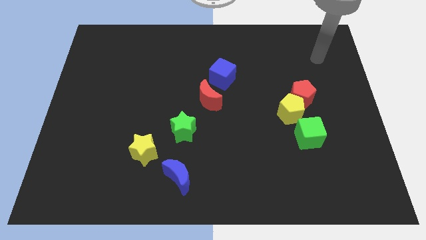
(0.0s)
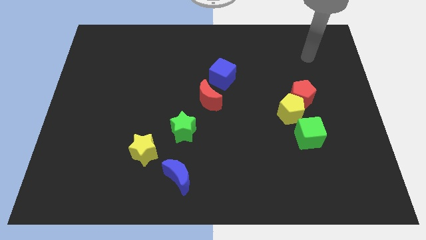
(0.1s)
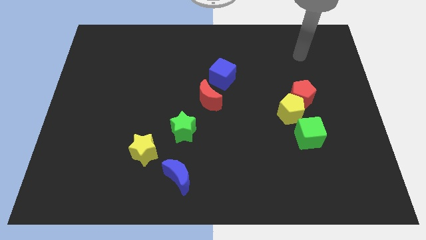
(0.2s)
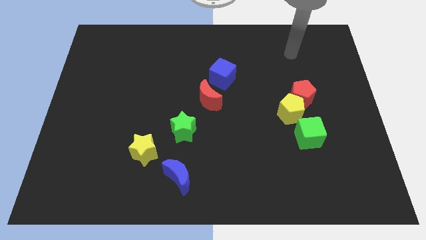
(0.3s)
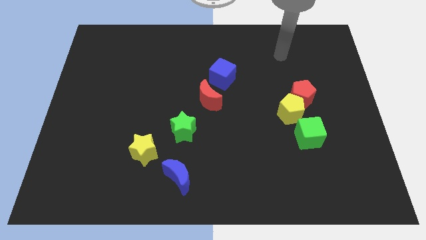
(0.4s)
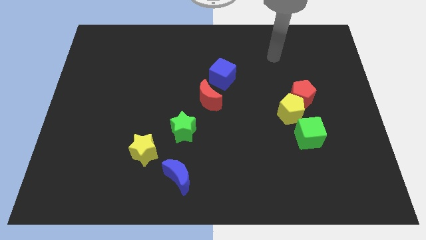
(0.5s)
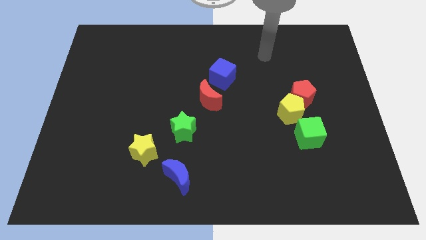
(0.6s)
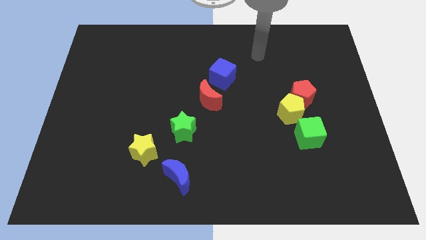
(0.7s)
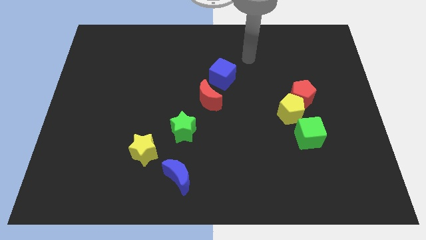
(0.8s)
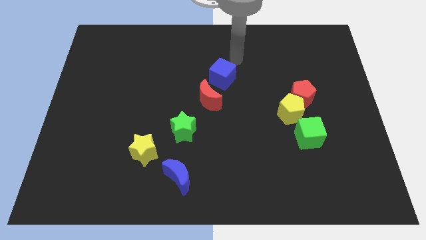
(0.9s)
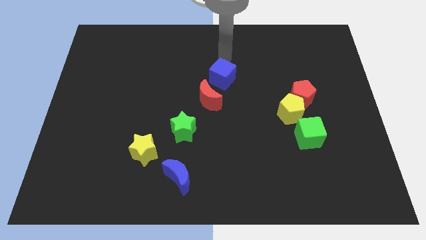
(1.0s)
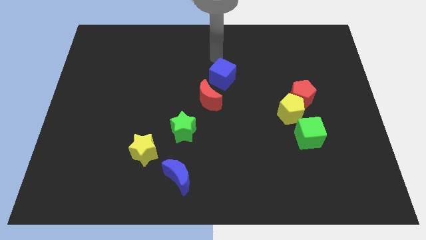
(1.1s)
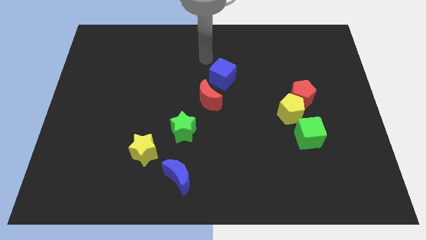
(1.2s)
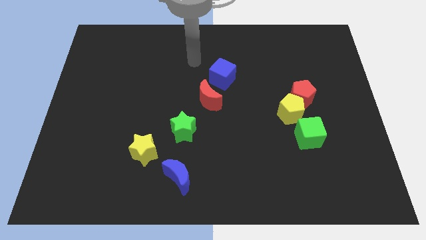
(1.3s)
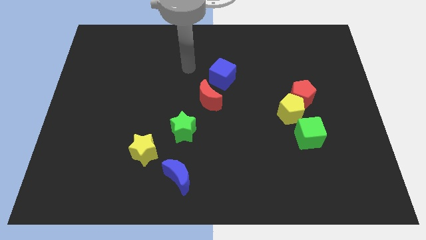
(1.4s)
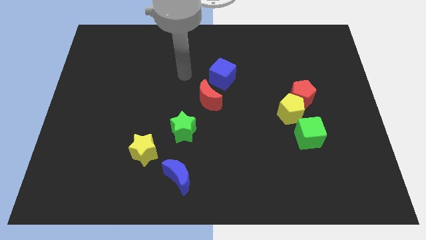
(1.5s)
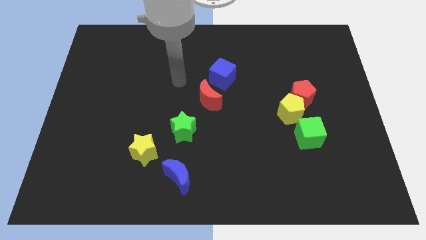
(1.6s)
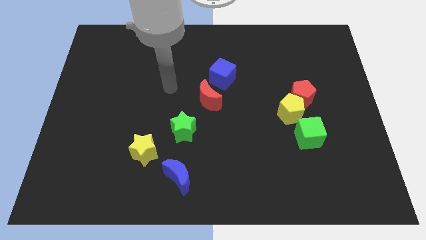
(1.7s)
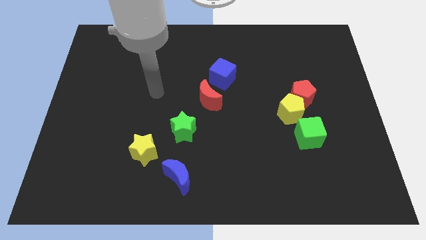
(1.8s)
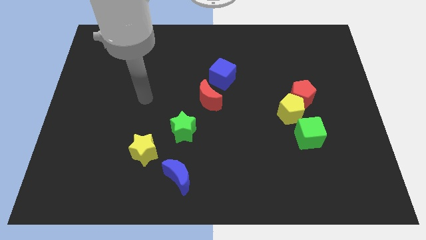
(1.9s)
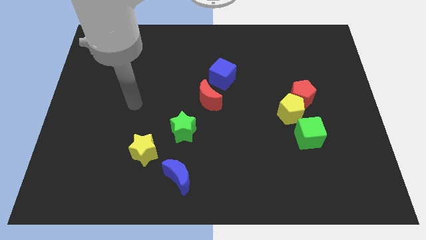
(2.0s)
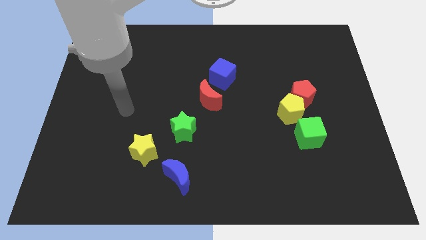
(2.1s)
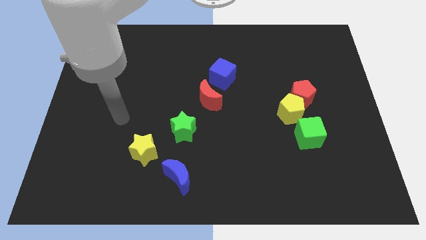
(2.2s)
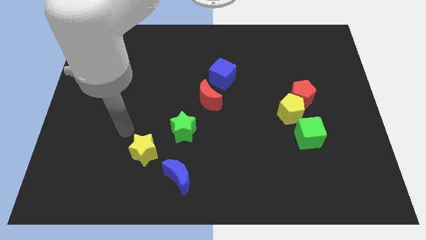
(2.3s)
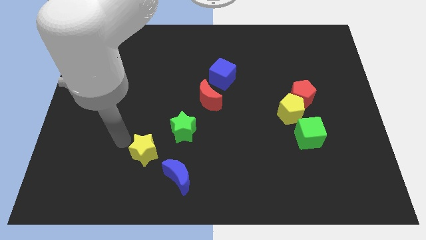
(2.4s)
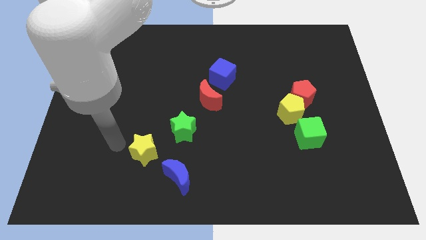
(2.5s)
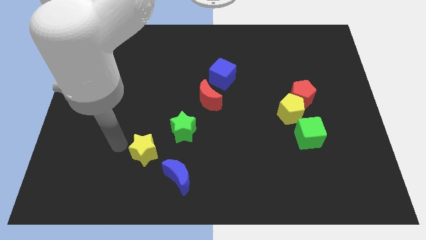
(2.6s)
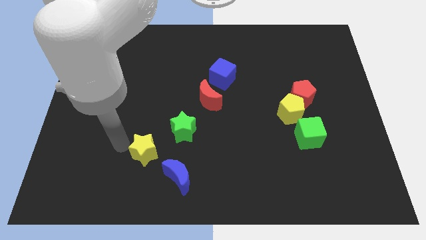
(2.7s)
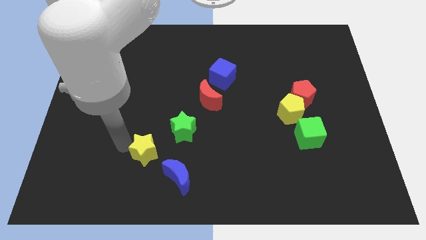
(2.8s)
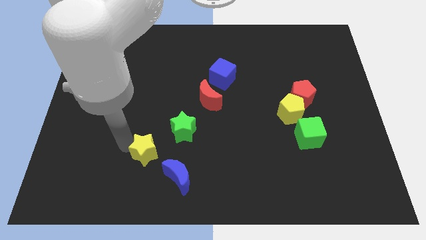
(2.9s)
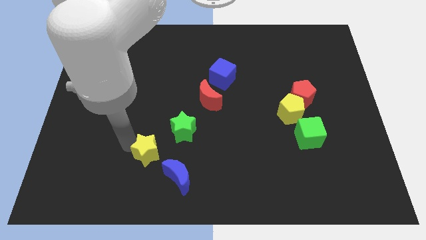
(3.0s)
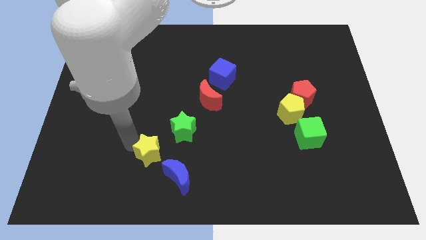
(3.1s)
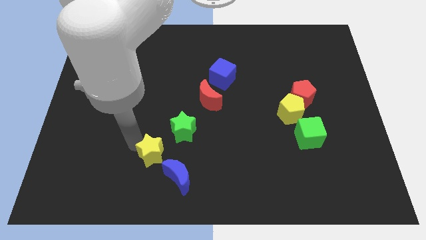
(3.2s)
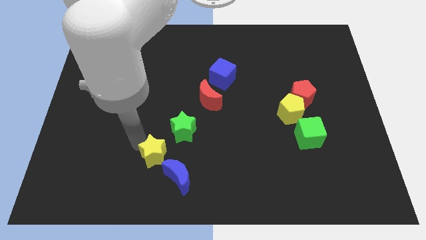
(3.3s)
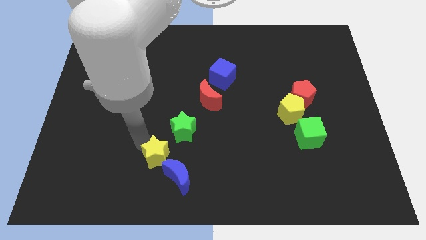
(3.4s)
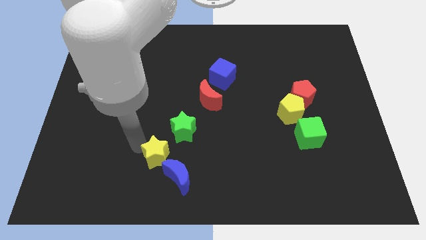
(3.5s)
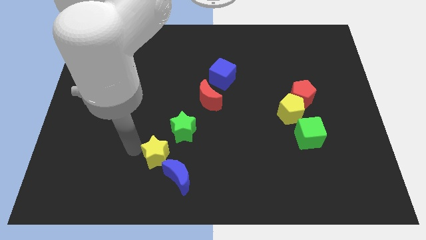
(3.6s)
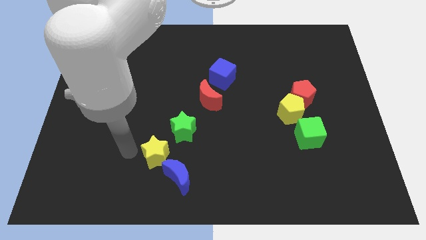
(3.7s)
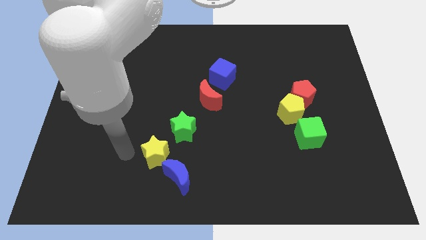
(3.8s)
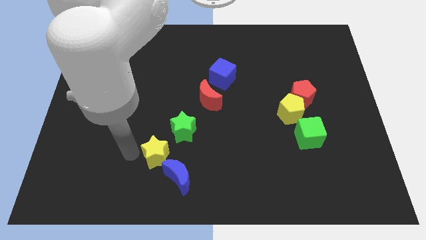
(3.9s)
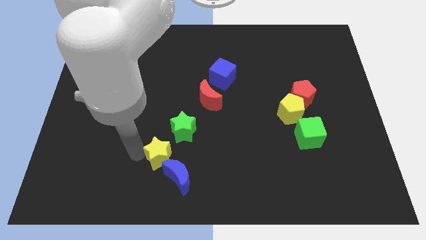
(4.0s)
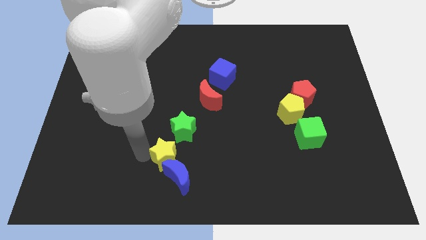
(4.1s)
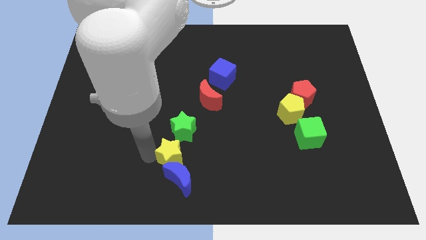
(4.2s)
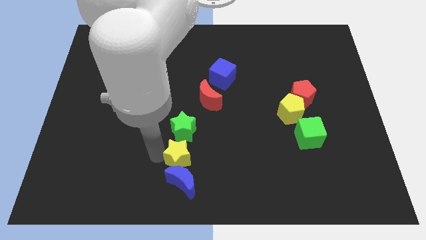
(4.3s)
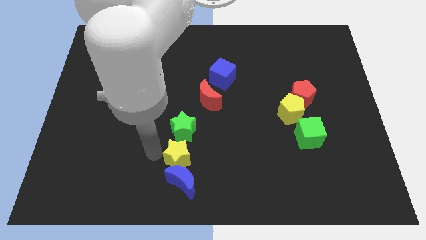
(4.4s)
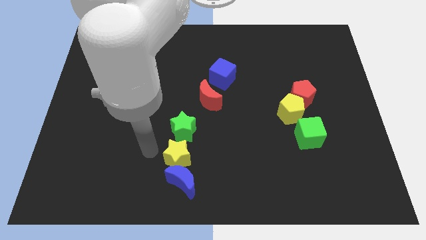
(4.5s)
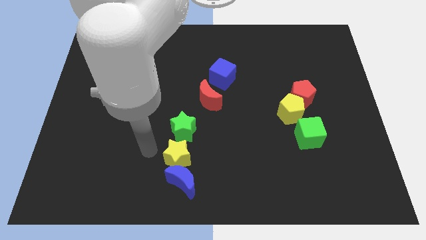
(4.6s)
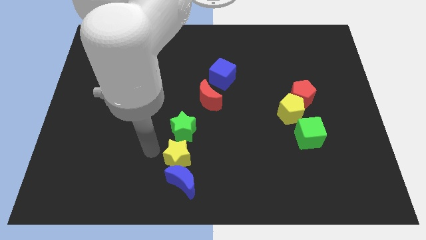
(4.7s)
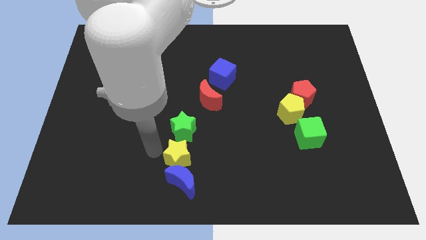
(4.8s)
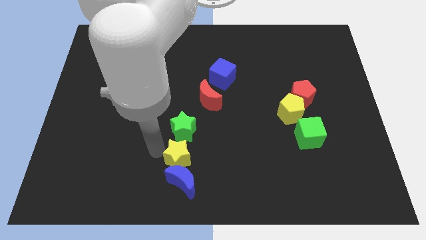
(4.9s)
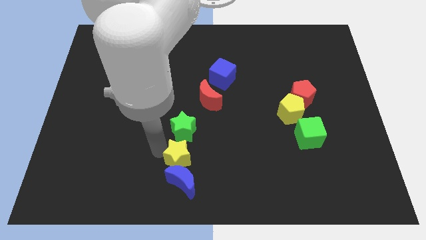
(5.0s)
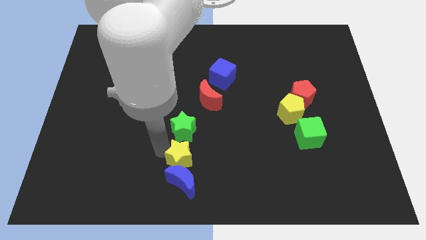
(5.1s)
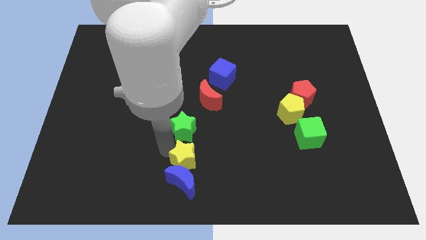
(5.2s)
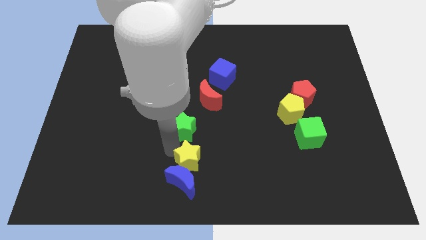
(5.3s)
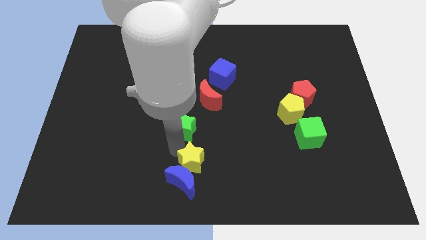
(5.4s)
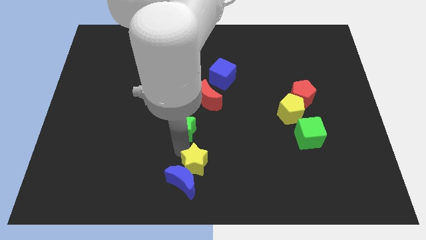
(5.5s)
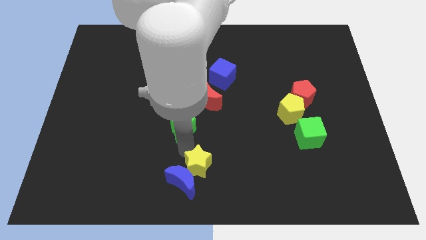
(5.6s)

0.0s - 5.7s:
slide the yellow star to the right side of the blue moon

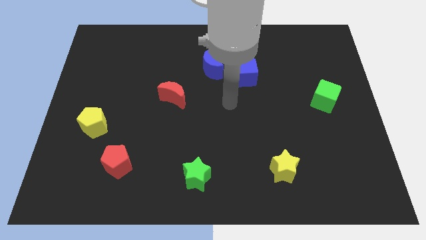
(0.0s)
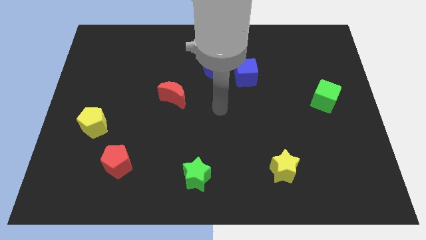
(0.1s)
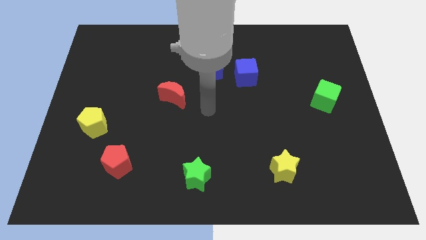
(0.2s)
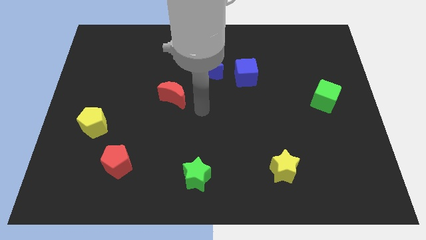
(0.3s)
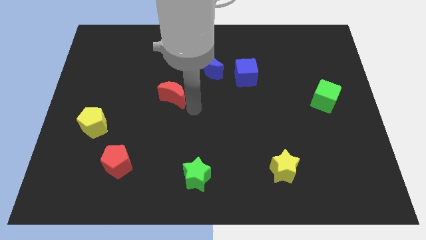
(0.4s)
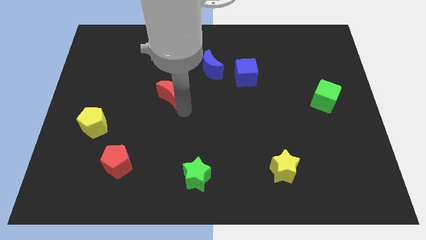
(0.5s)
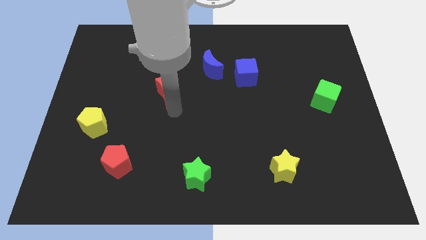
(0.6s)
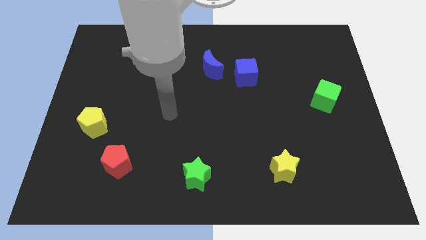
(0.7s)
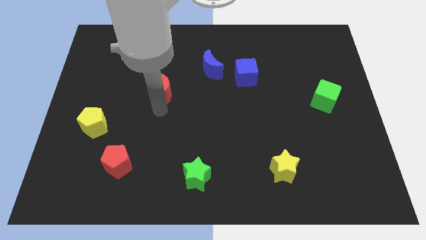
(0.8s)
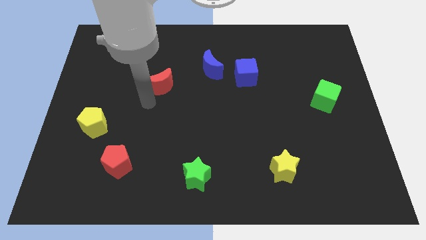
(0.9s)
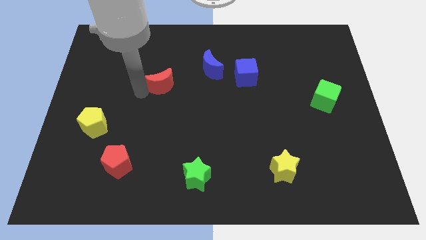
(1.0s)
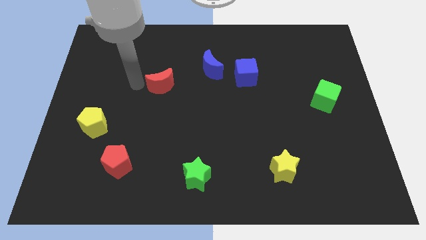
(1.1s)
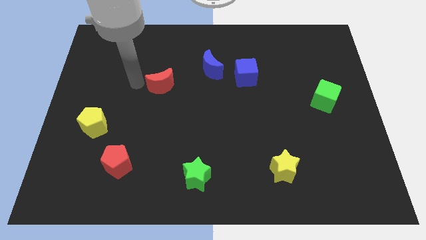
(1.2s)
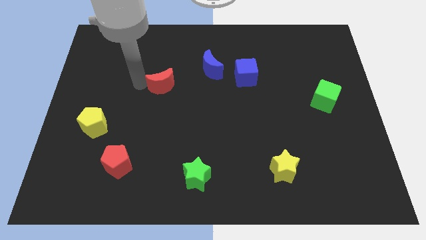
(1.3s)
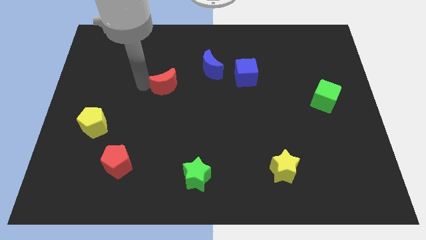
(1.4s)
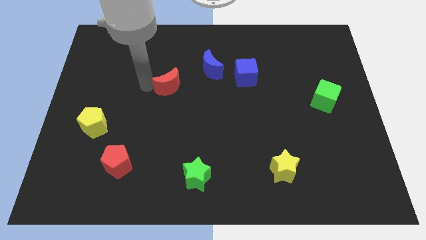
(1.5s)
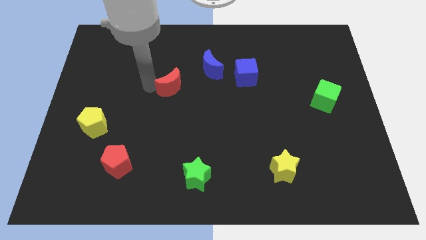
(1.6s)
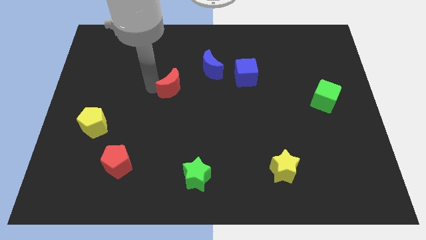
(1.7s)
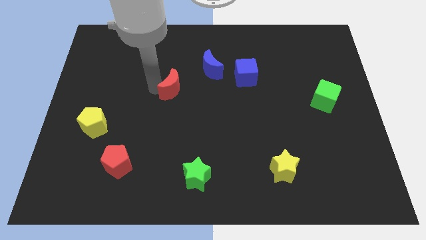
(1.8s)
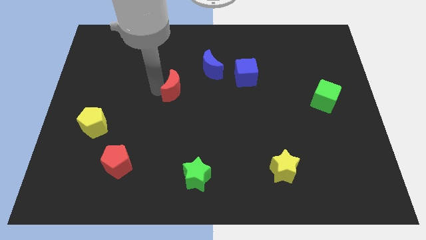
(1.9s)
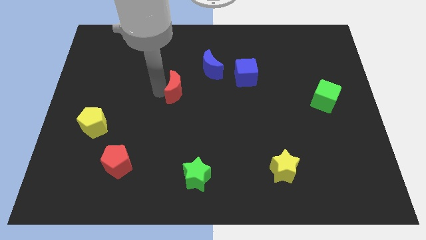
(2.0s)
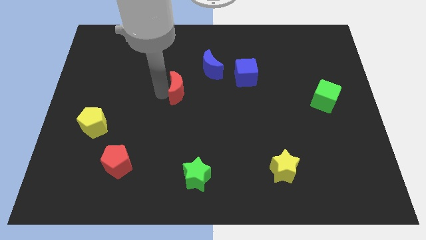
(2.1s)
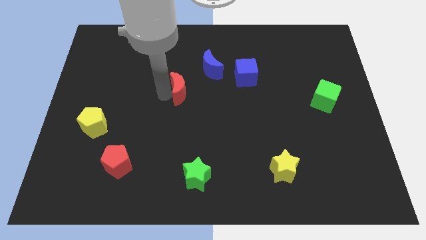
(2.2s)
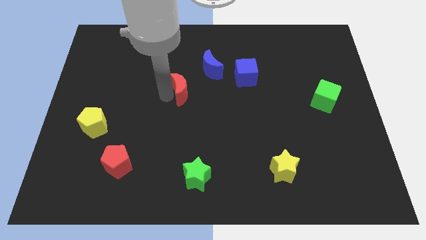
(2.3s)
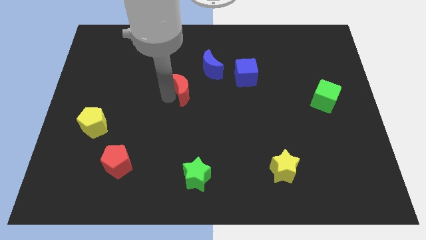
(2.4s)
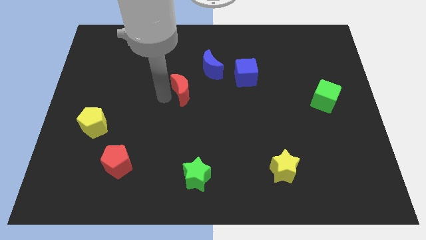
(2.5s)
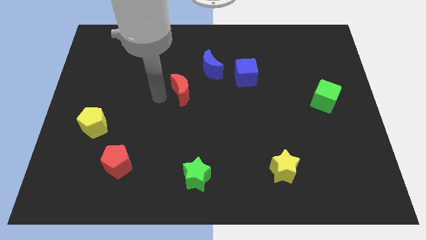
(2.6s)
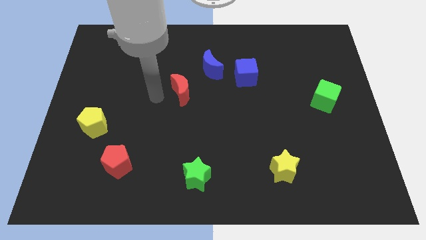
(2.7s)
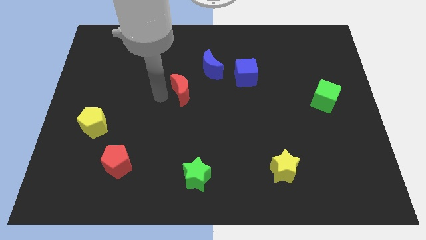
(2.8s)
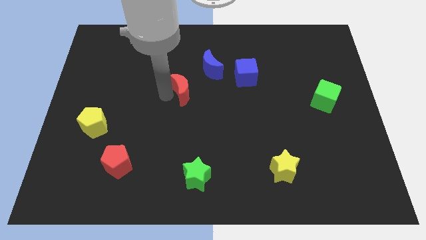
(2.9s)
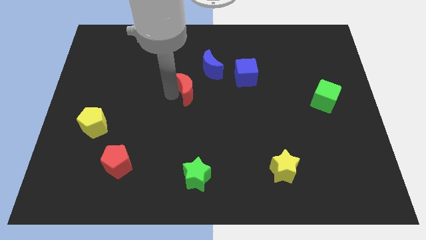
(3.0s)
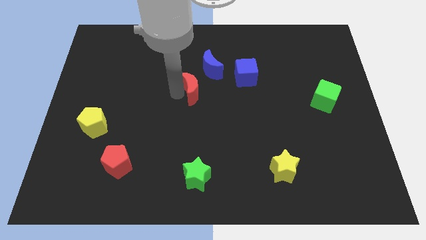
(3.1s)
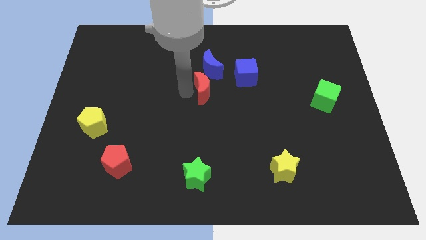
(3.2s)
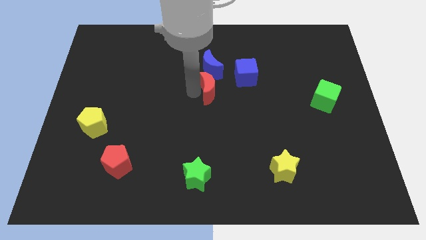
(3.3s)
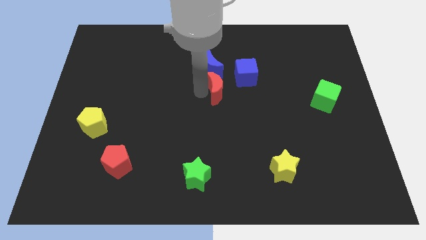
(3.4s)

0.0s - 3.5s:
push the red moon diagonally down and to the right of the blue moon
